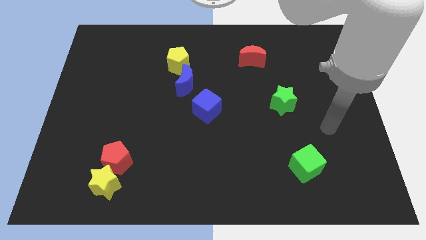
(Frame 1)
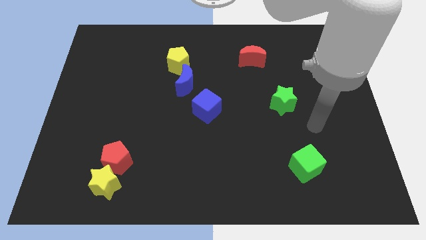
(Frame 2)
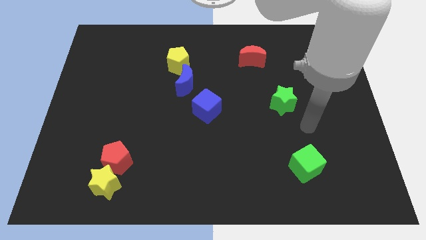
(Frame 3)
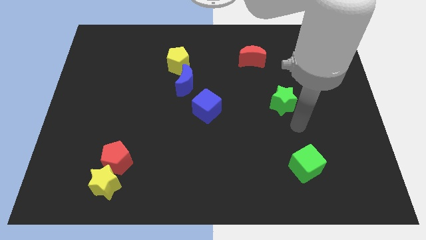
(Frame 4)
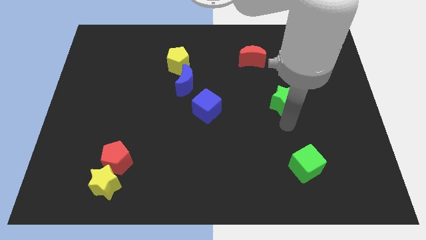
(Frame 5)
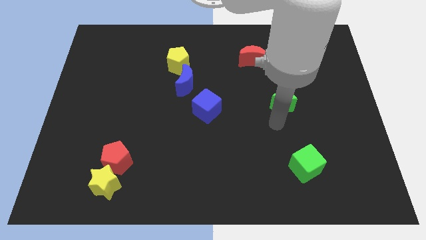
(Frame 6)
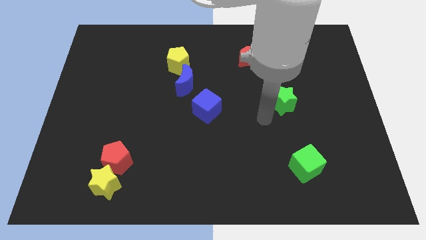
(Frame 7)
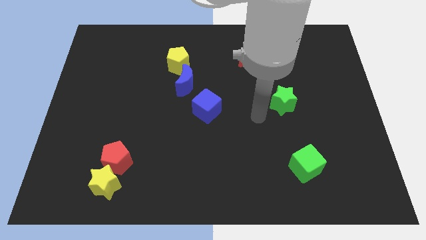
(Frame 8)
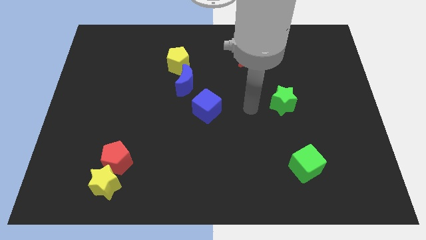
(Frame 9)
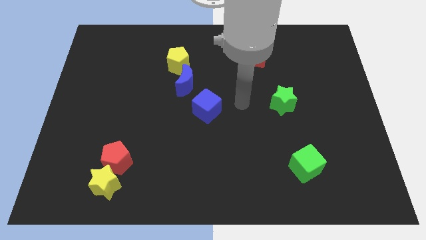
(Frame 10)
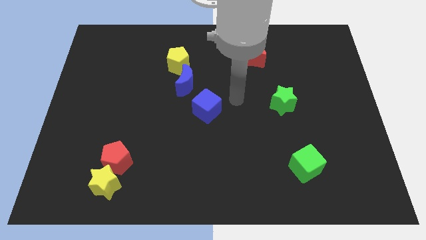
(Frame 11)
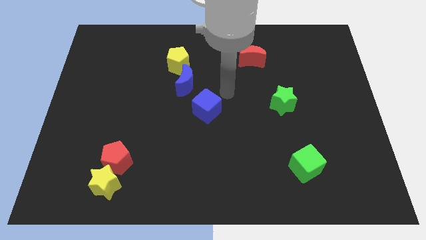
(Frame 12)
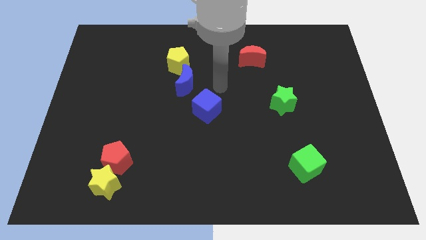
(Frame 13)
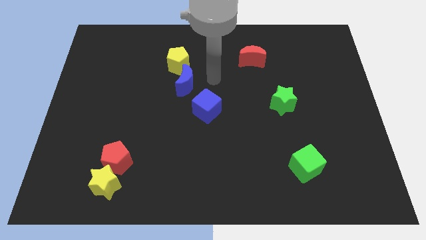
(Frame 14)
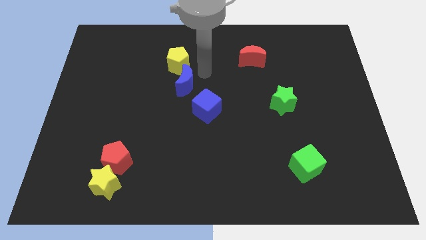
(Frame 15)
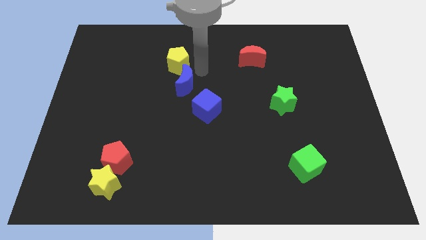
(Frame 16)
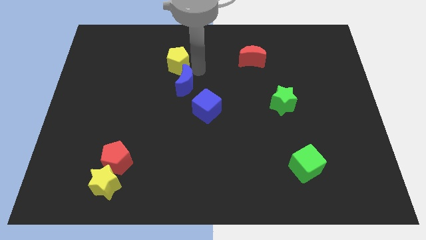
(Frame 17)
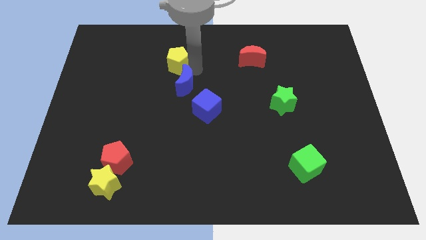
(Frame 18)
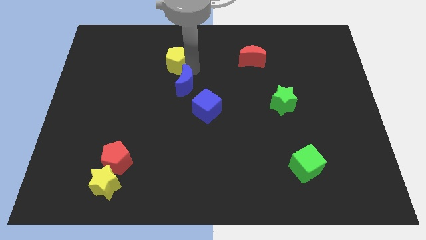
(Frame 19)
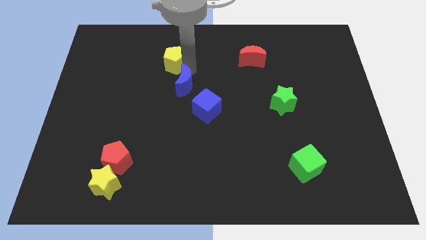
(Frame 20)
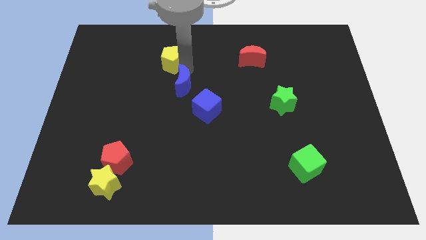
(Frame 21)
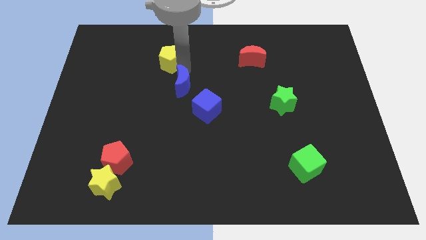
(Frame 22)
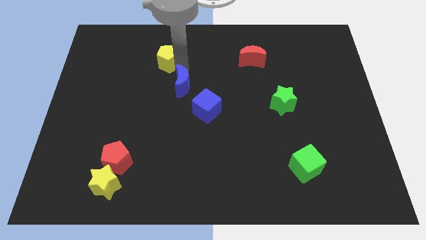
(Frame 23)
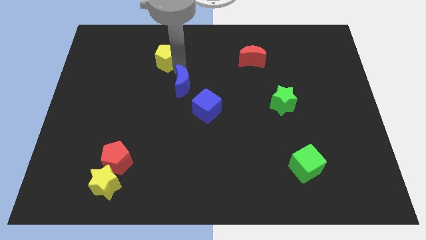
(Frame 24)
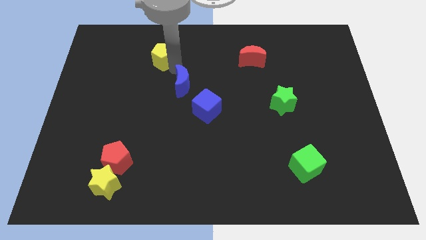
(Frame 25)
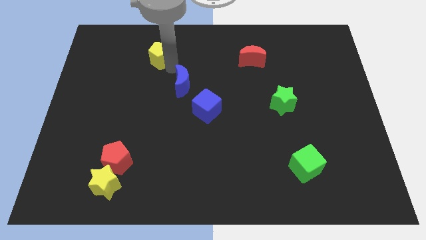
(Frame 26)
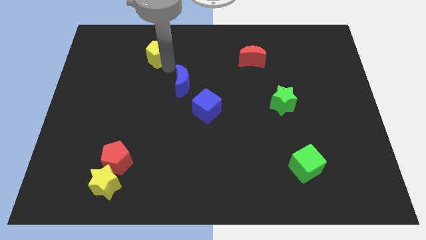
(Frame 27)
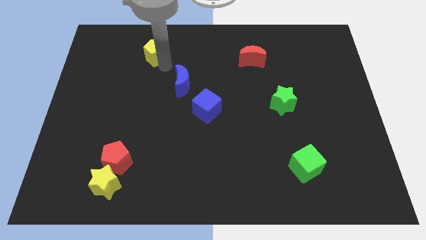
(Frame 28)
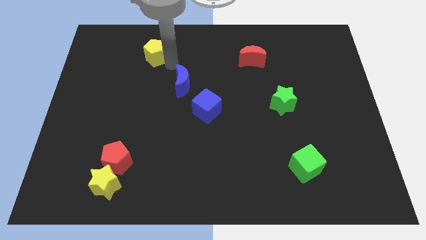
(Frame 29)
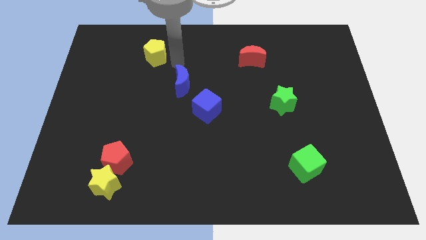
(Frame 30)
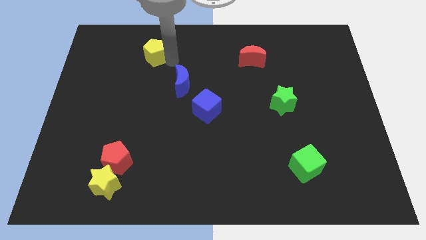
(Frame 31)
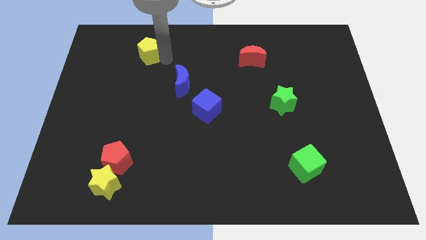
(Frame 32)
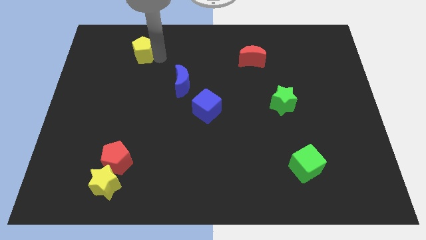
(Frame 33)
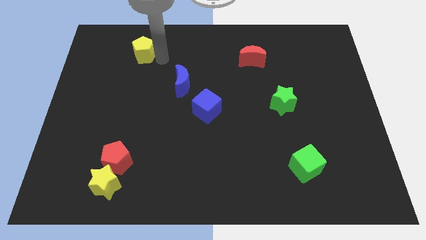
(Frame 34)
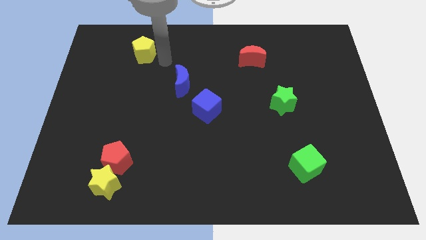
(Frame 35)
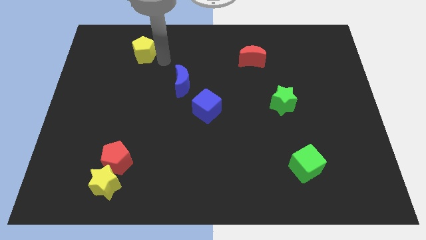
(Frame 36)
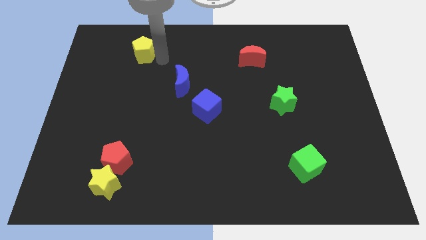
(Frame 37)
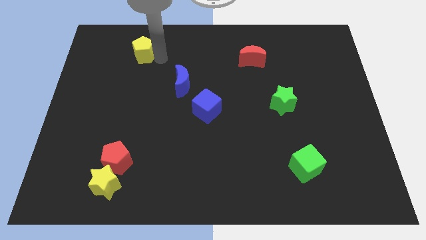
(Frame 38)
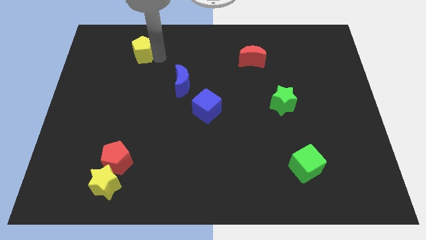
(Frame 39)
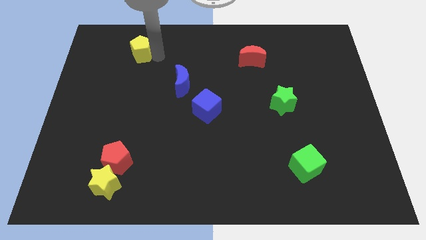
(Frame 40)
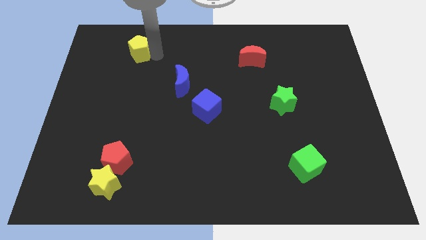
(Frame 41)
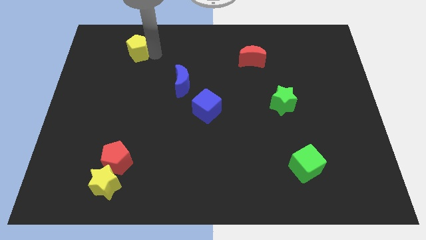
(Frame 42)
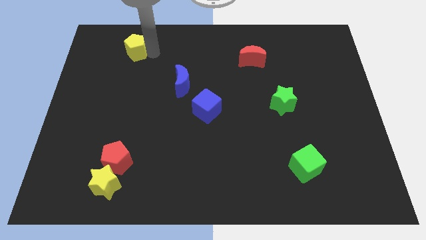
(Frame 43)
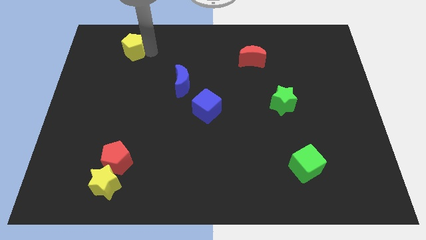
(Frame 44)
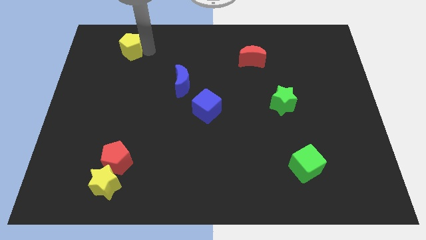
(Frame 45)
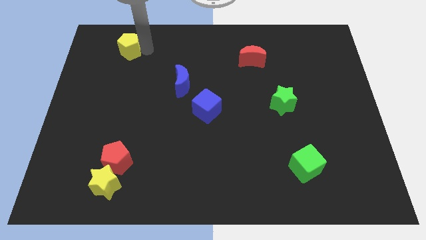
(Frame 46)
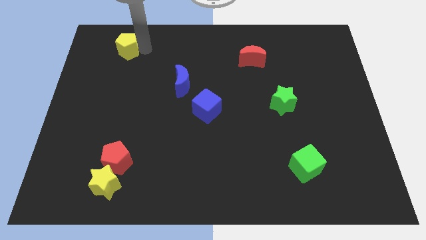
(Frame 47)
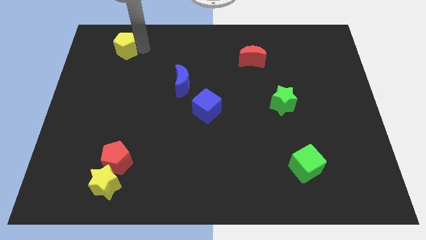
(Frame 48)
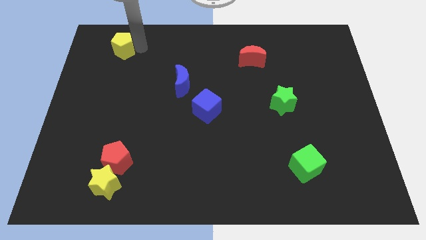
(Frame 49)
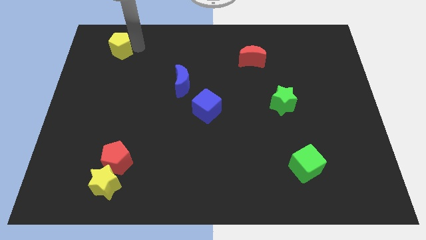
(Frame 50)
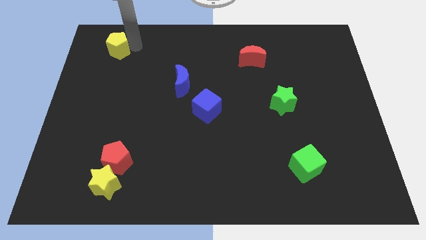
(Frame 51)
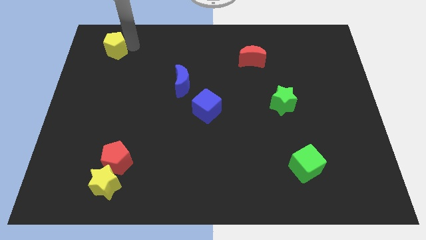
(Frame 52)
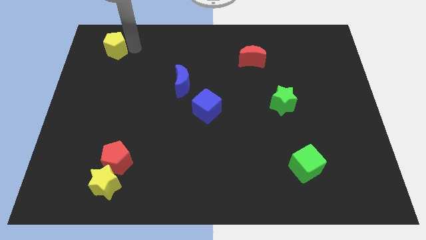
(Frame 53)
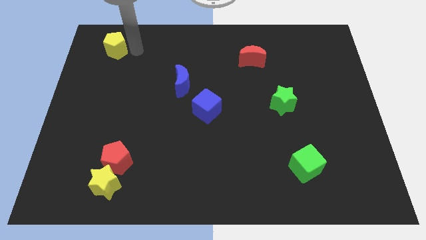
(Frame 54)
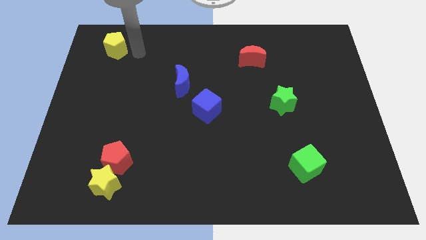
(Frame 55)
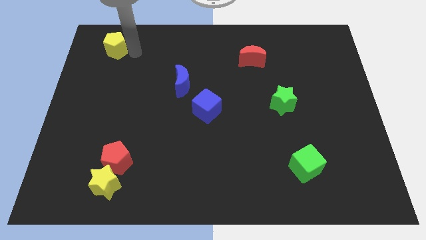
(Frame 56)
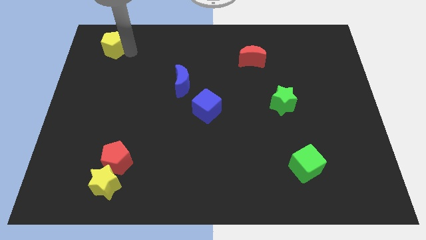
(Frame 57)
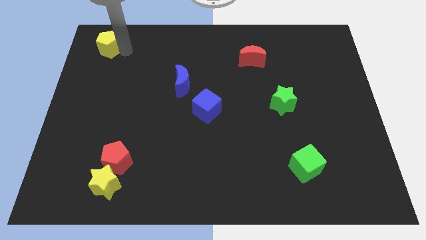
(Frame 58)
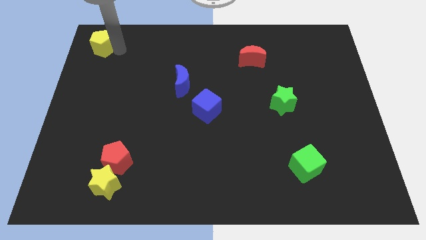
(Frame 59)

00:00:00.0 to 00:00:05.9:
move the yellow pentagon to the top left corner

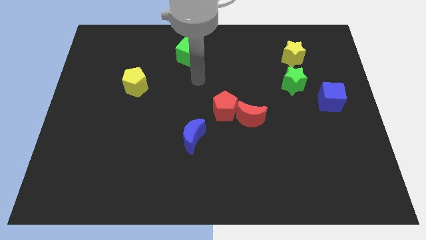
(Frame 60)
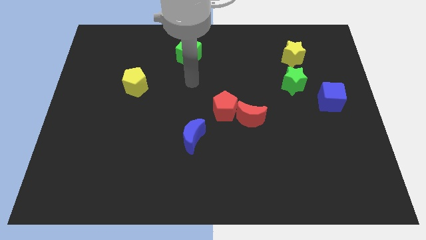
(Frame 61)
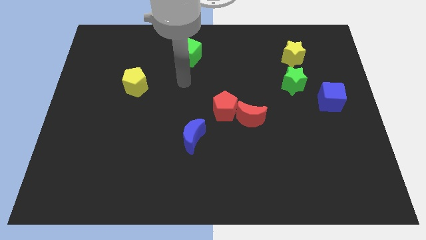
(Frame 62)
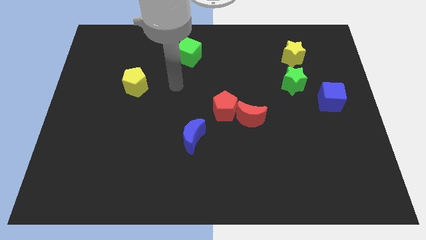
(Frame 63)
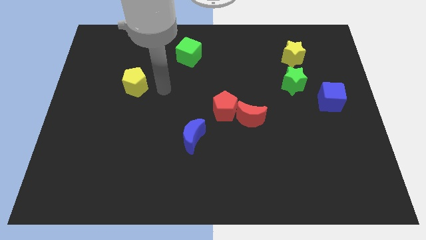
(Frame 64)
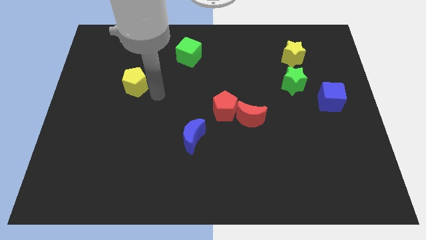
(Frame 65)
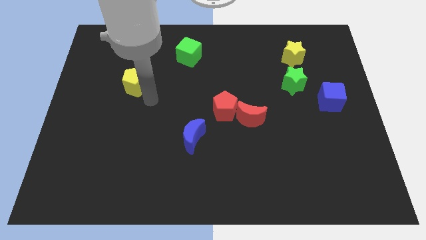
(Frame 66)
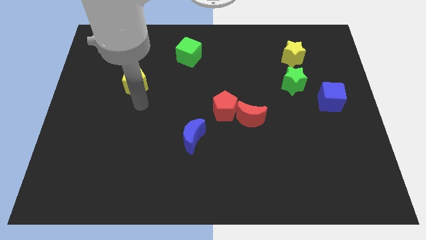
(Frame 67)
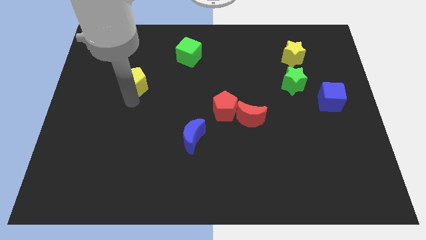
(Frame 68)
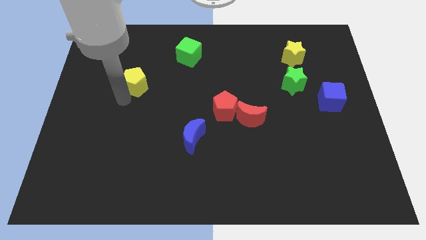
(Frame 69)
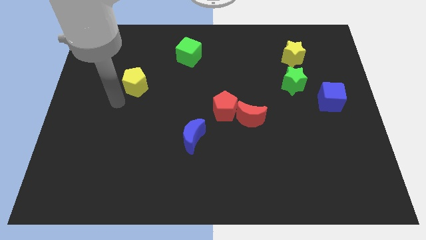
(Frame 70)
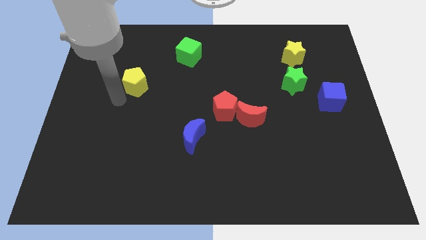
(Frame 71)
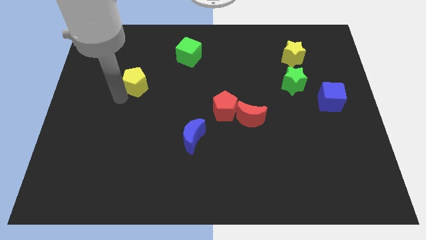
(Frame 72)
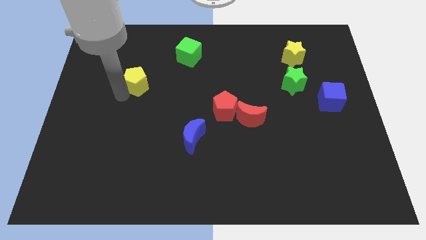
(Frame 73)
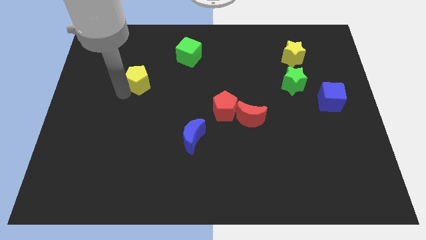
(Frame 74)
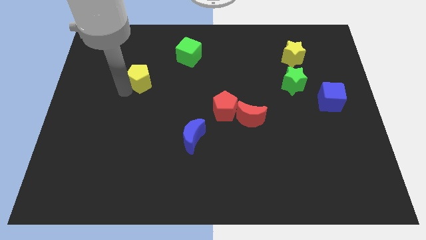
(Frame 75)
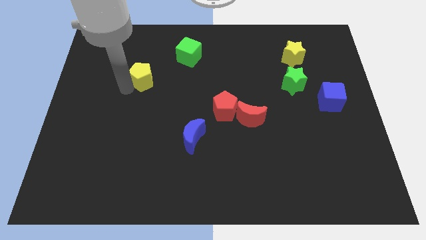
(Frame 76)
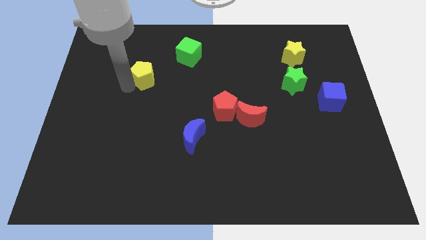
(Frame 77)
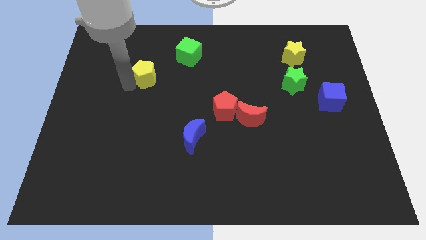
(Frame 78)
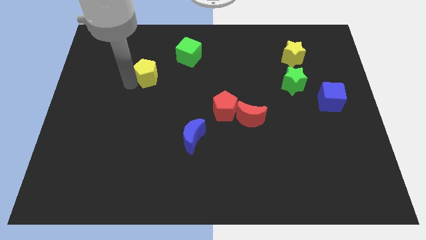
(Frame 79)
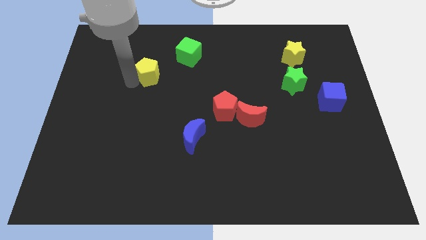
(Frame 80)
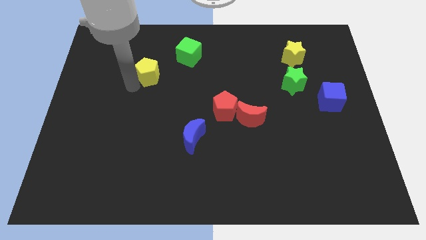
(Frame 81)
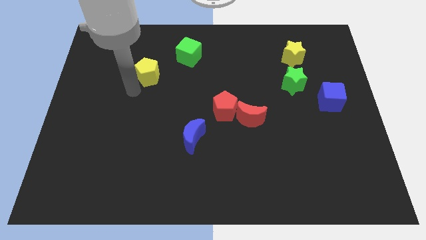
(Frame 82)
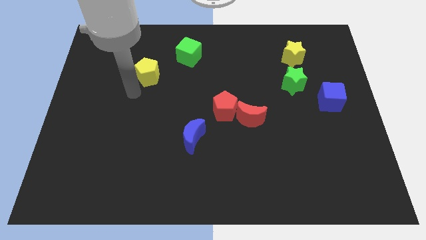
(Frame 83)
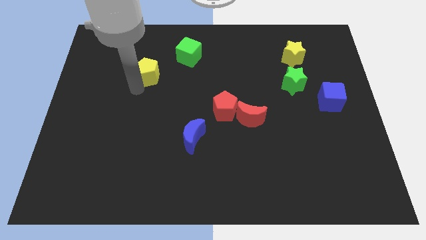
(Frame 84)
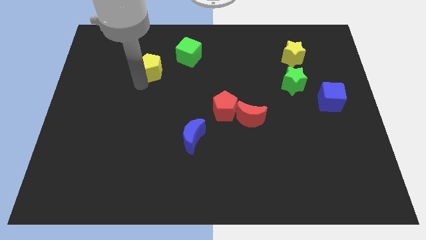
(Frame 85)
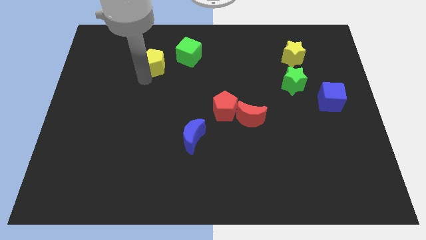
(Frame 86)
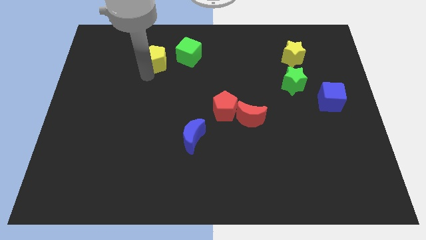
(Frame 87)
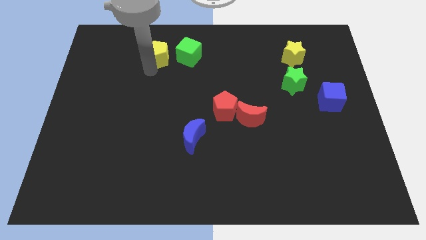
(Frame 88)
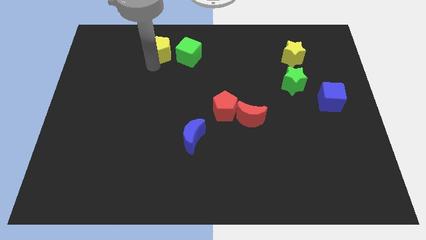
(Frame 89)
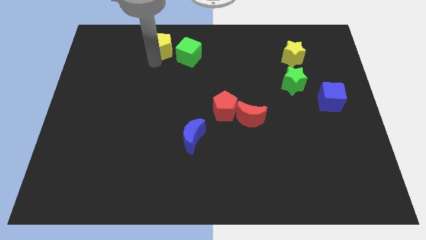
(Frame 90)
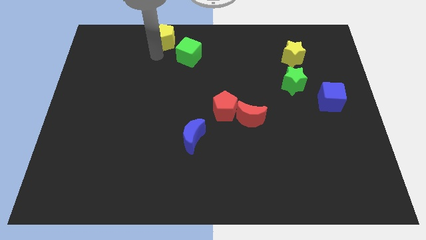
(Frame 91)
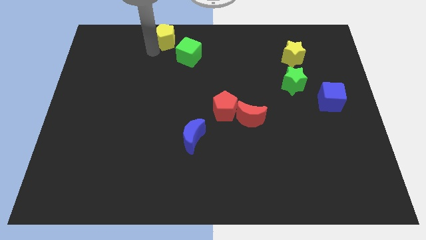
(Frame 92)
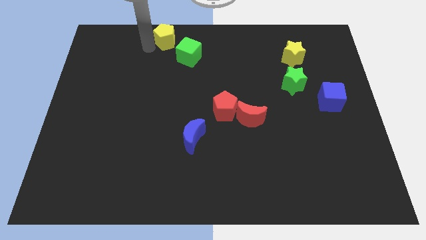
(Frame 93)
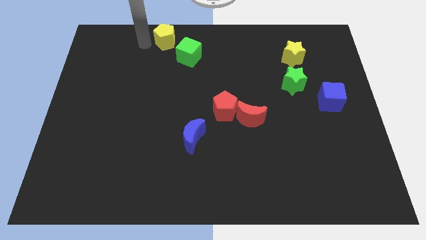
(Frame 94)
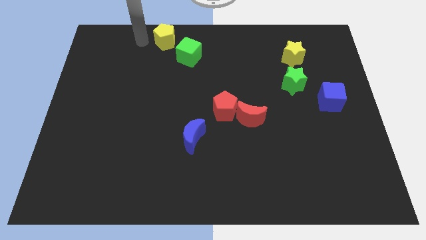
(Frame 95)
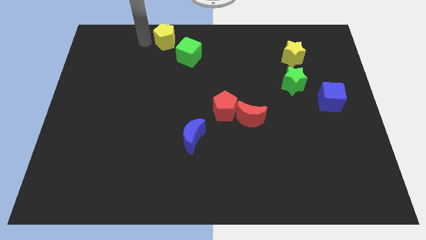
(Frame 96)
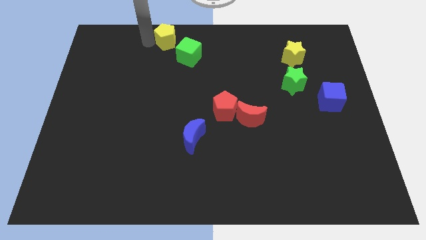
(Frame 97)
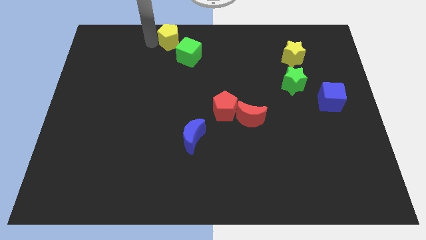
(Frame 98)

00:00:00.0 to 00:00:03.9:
push the yellow pentagon to the towards your base
